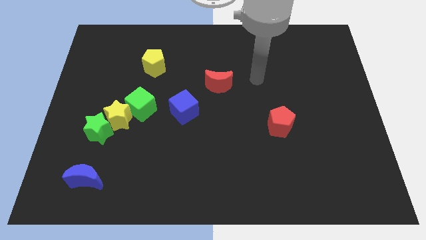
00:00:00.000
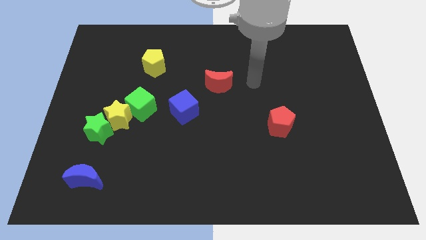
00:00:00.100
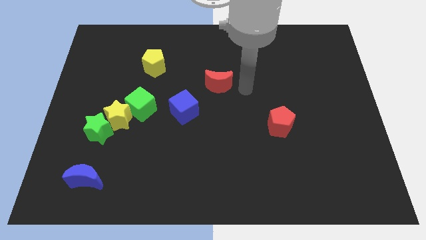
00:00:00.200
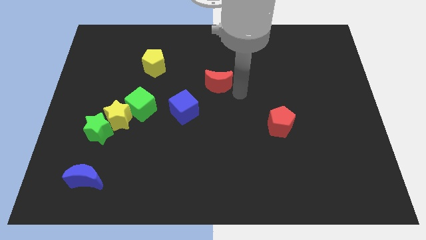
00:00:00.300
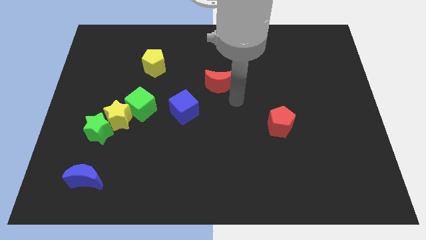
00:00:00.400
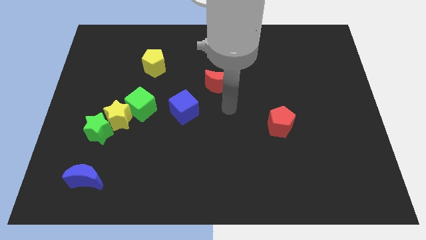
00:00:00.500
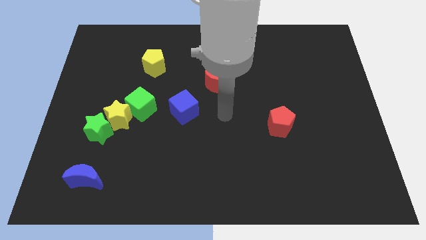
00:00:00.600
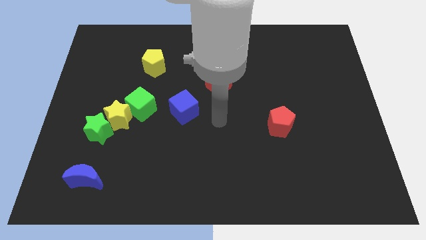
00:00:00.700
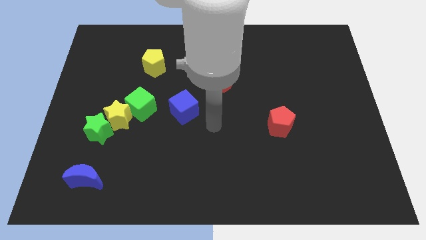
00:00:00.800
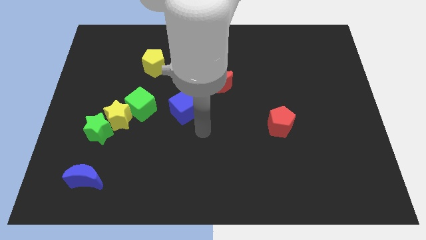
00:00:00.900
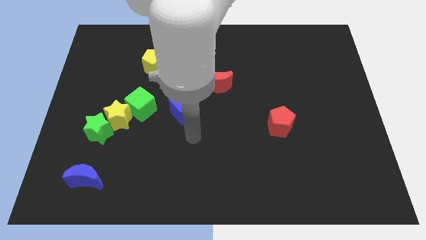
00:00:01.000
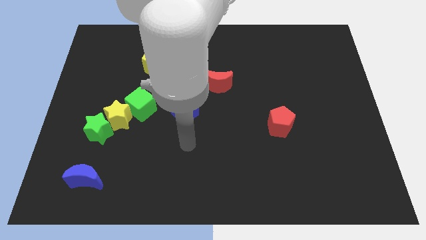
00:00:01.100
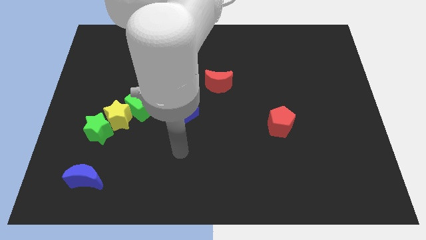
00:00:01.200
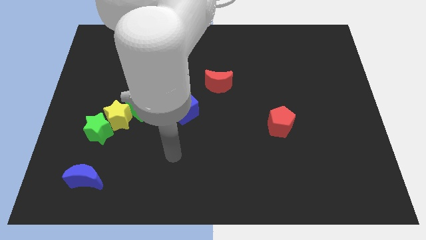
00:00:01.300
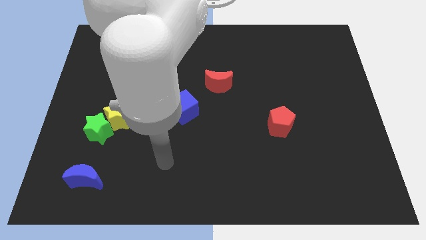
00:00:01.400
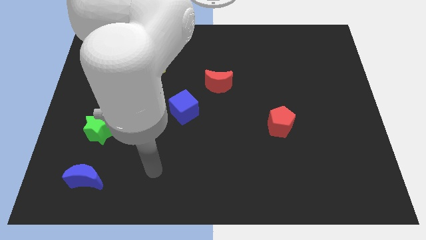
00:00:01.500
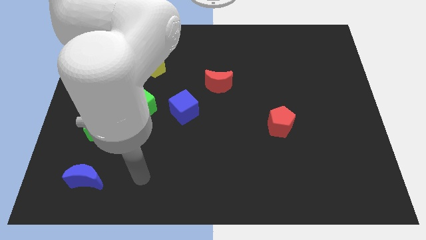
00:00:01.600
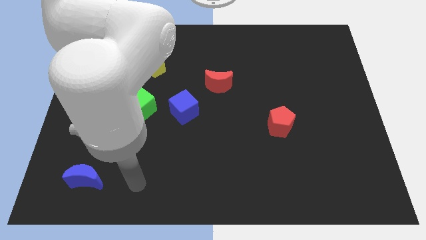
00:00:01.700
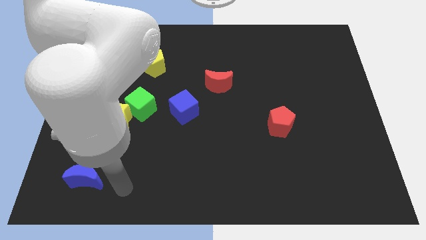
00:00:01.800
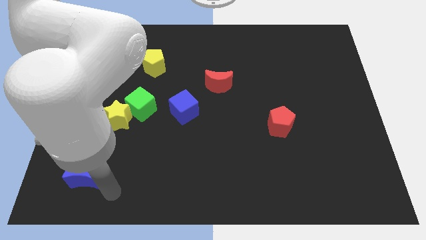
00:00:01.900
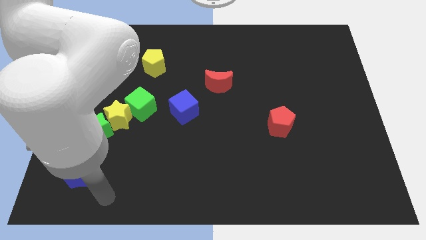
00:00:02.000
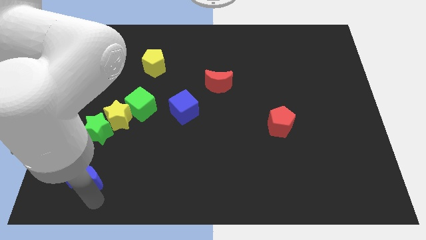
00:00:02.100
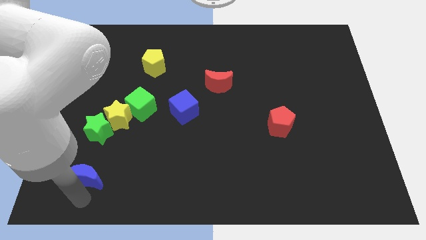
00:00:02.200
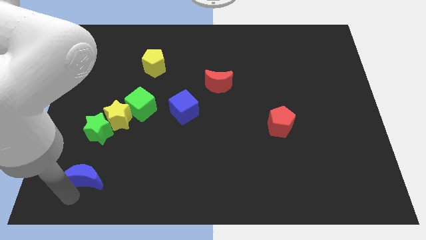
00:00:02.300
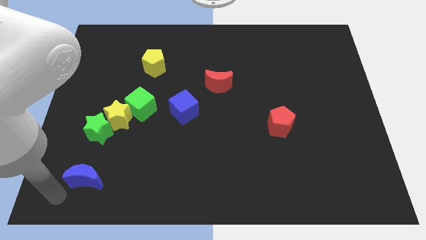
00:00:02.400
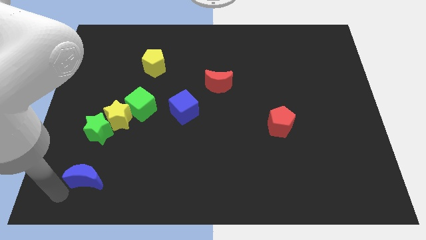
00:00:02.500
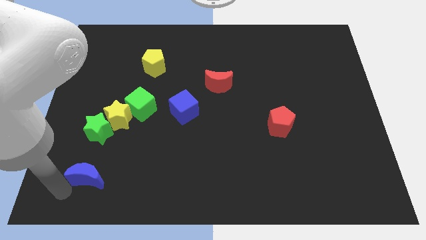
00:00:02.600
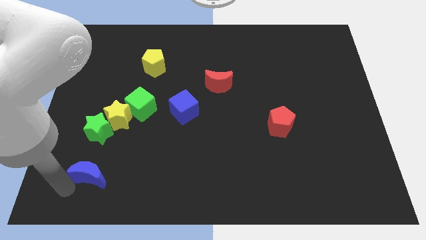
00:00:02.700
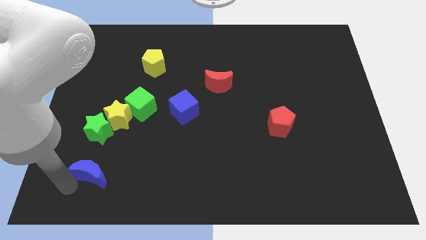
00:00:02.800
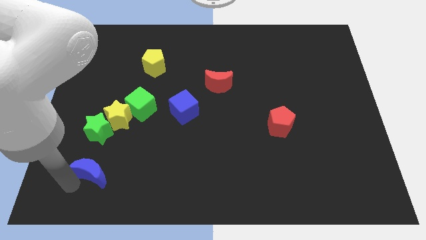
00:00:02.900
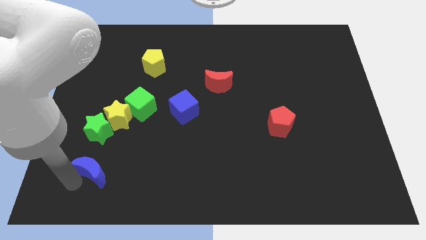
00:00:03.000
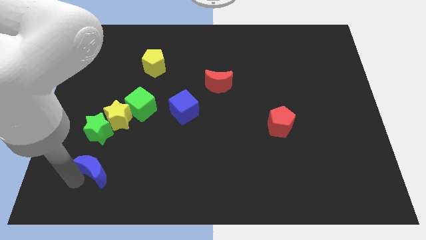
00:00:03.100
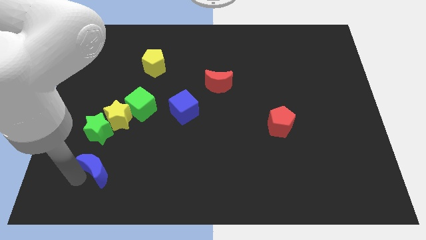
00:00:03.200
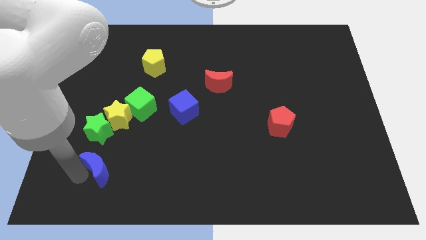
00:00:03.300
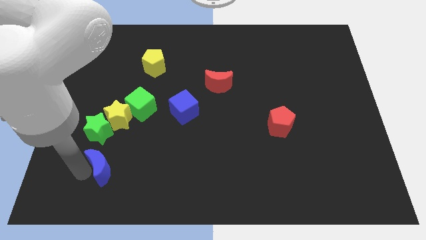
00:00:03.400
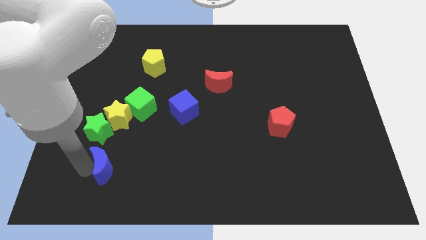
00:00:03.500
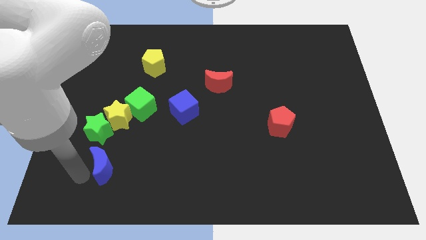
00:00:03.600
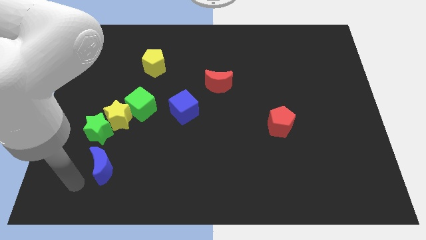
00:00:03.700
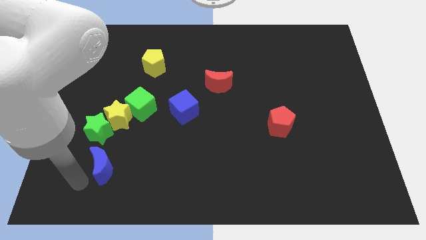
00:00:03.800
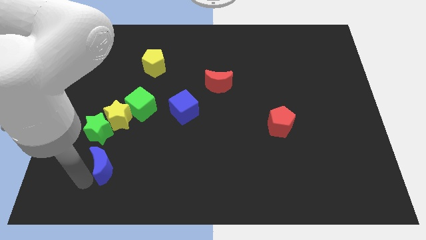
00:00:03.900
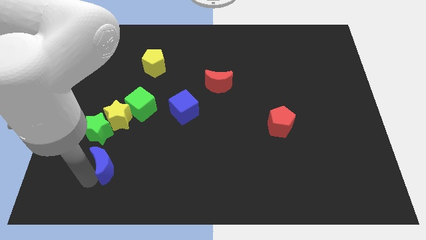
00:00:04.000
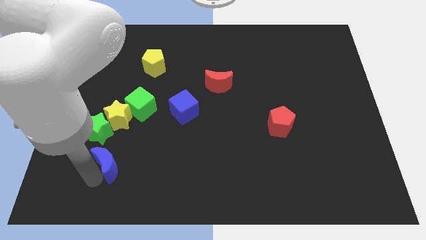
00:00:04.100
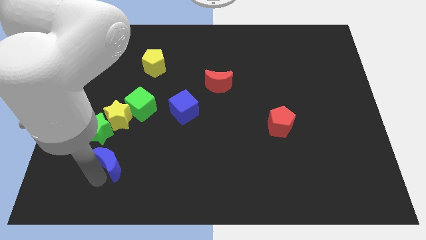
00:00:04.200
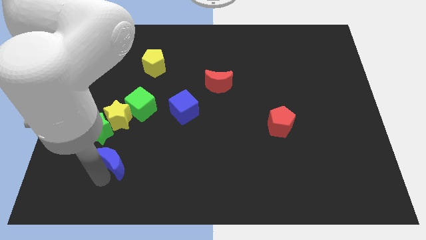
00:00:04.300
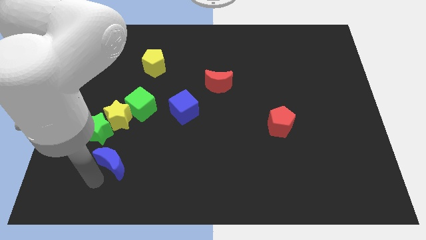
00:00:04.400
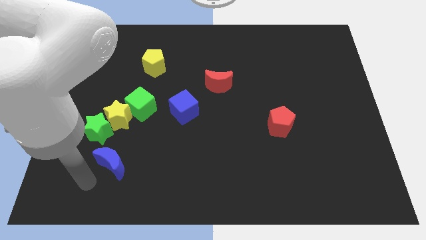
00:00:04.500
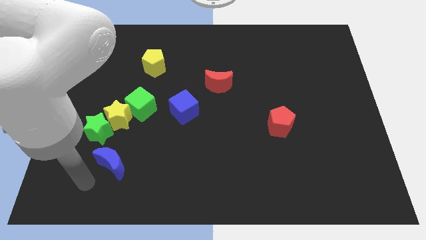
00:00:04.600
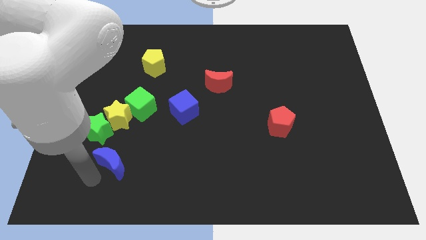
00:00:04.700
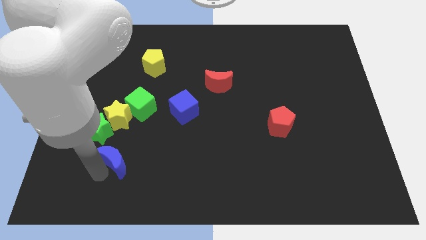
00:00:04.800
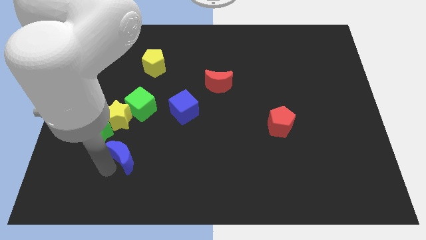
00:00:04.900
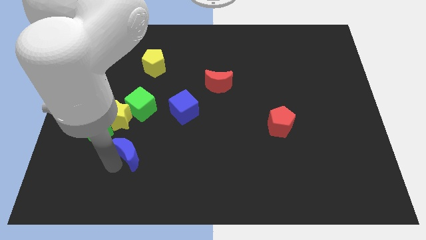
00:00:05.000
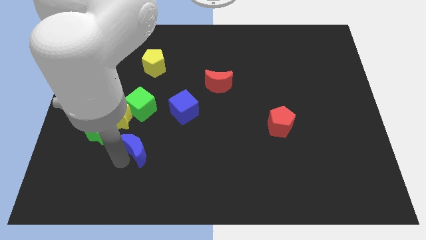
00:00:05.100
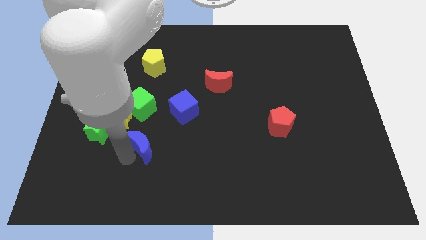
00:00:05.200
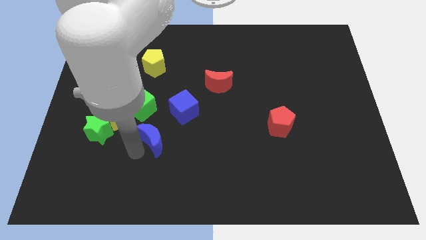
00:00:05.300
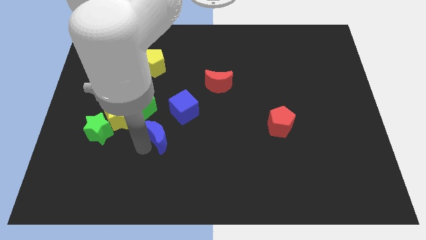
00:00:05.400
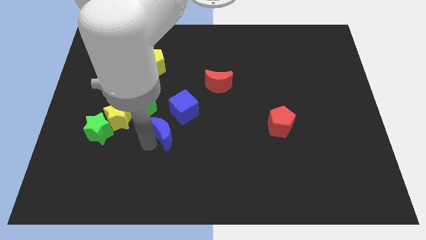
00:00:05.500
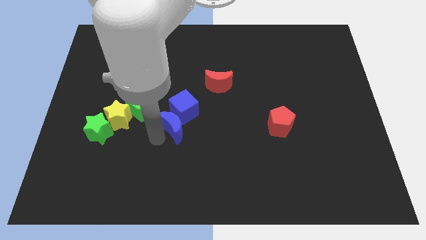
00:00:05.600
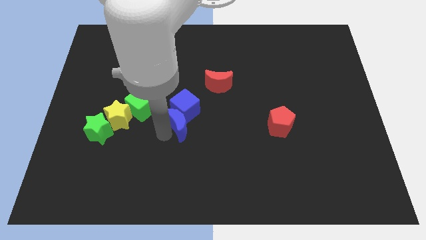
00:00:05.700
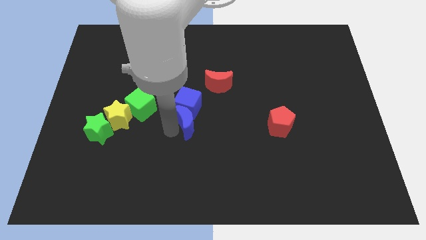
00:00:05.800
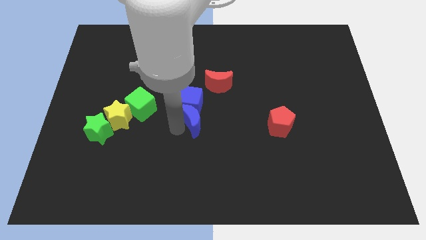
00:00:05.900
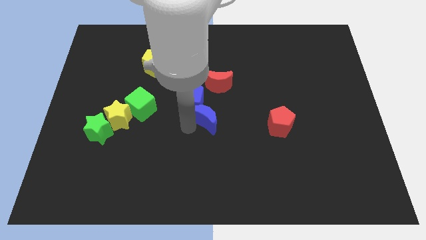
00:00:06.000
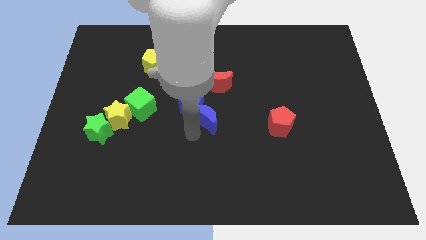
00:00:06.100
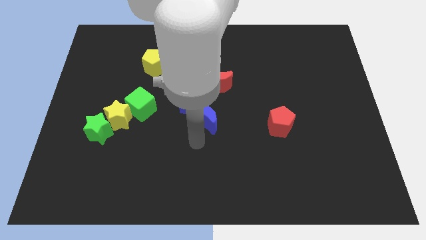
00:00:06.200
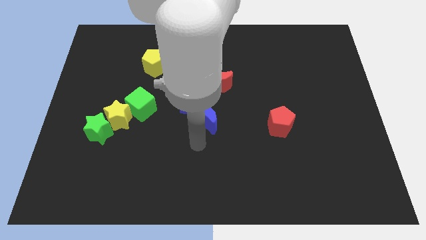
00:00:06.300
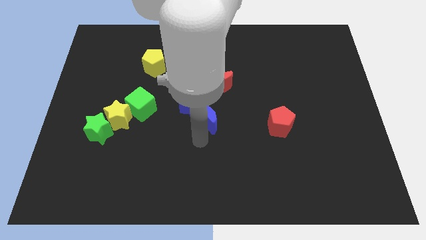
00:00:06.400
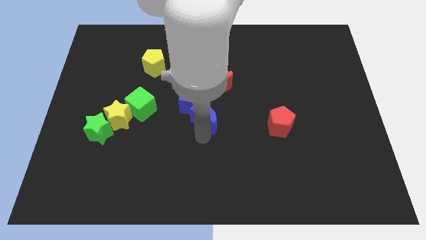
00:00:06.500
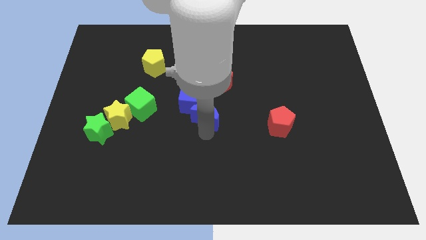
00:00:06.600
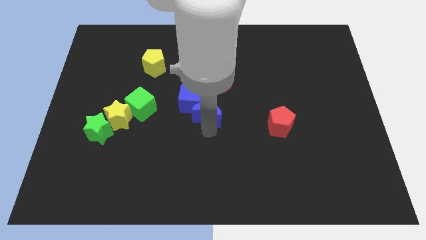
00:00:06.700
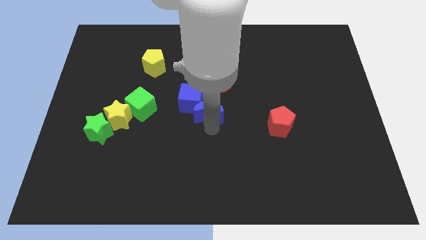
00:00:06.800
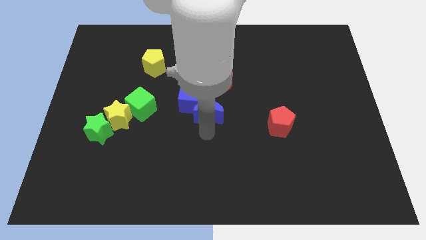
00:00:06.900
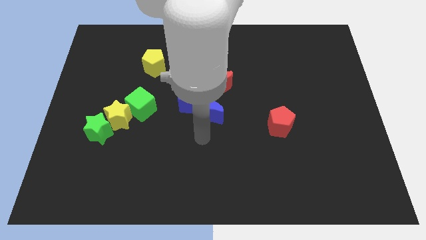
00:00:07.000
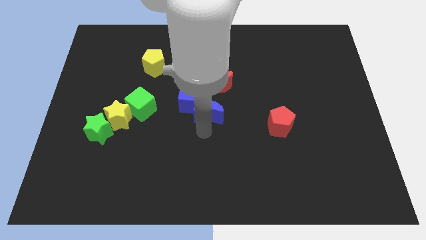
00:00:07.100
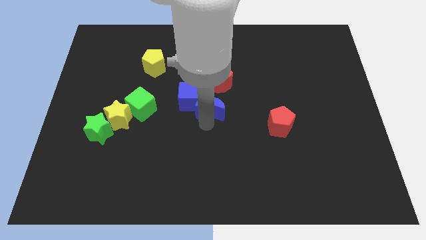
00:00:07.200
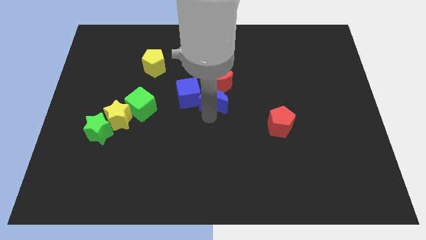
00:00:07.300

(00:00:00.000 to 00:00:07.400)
put the blue moon next to the red moon
